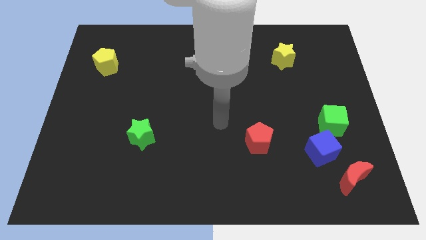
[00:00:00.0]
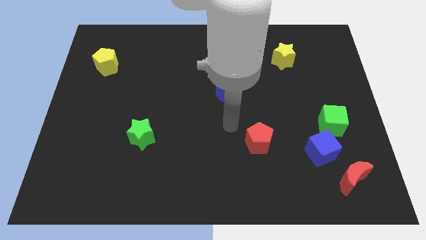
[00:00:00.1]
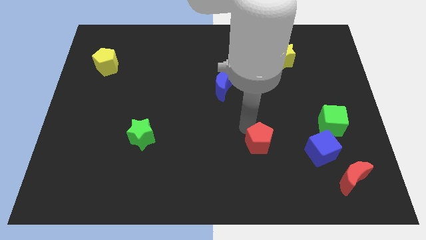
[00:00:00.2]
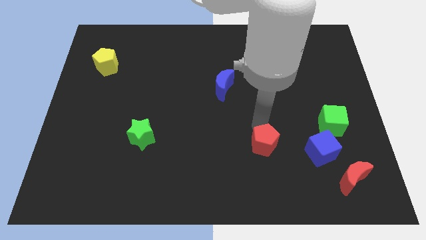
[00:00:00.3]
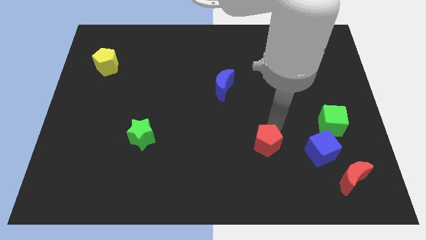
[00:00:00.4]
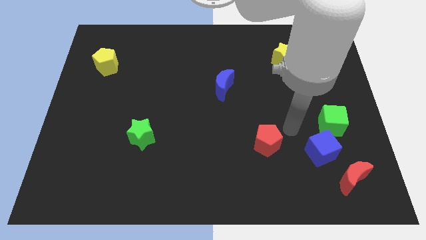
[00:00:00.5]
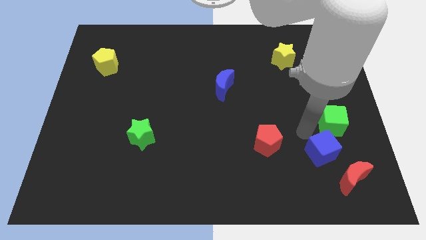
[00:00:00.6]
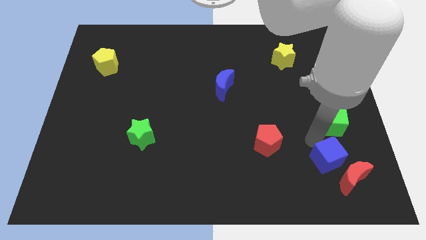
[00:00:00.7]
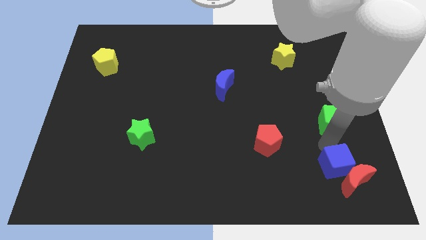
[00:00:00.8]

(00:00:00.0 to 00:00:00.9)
separate the green cube from the blue cube

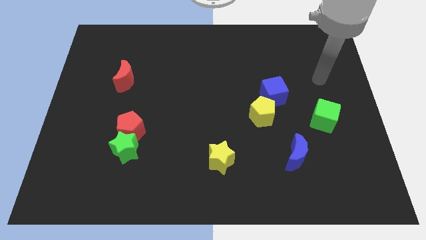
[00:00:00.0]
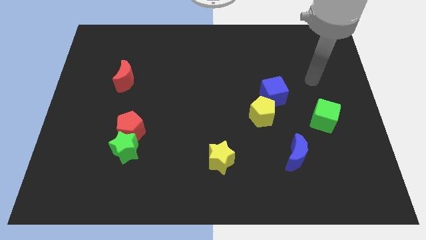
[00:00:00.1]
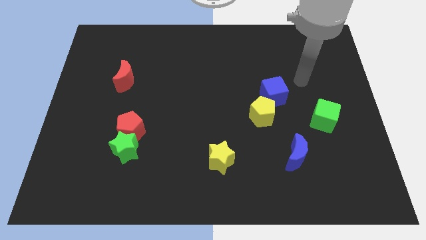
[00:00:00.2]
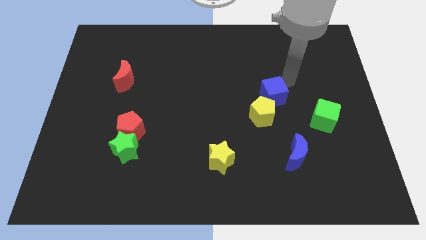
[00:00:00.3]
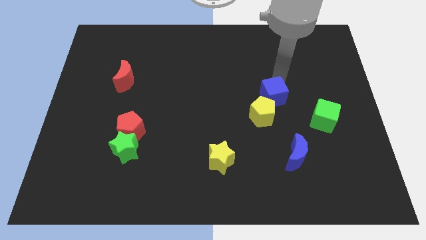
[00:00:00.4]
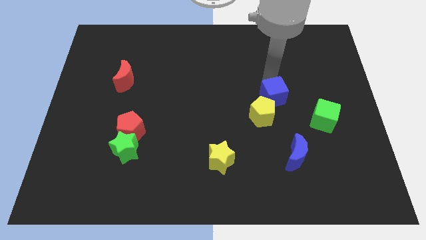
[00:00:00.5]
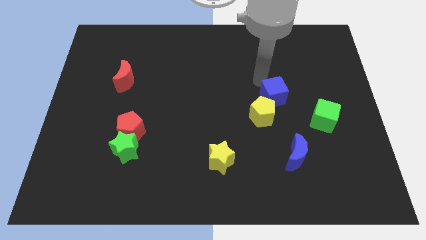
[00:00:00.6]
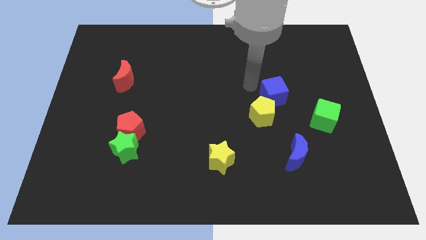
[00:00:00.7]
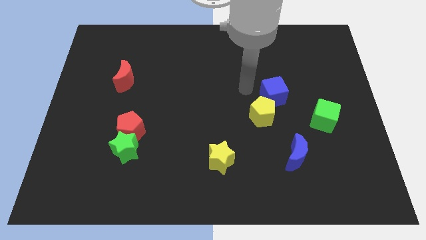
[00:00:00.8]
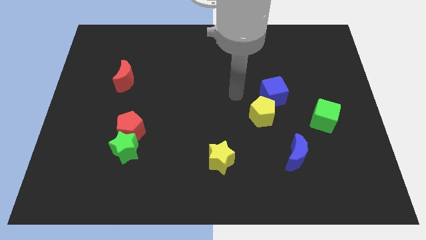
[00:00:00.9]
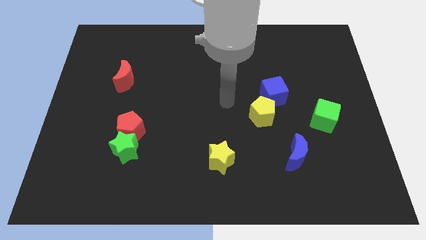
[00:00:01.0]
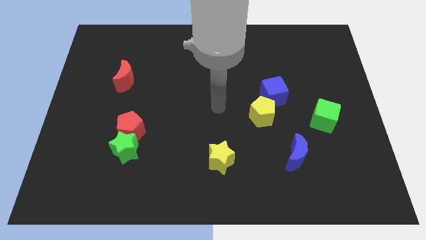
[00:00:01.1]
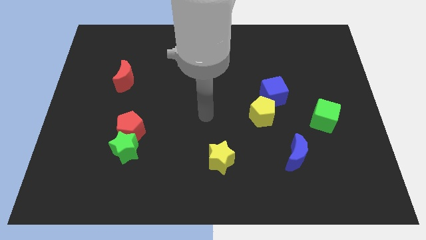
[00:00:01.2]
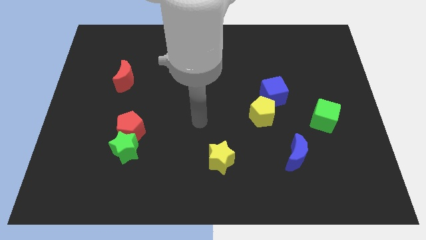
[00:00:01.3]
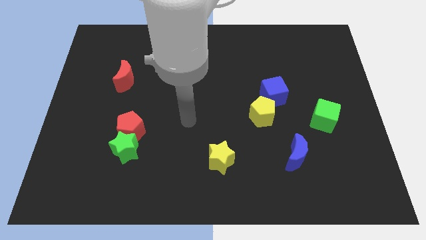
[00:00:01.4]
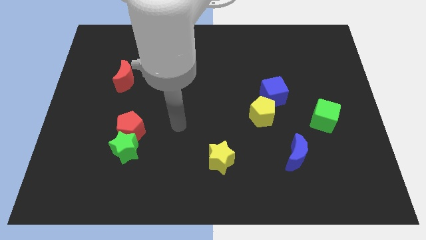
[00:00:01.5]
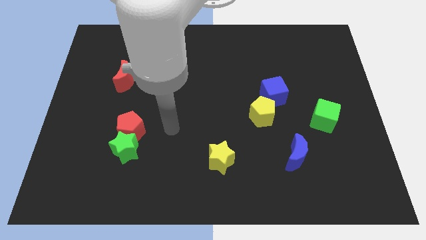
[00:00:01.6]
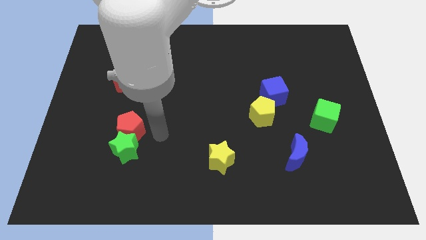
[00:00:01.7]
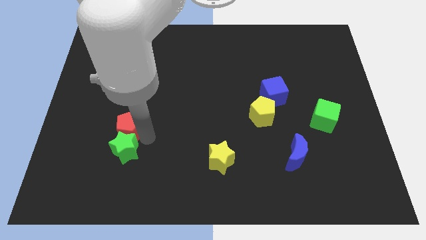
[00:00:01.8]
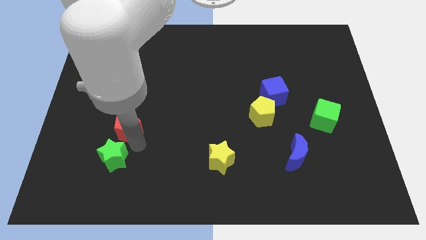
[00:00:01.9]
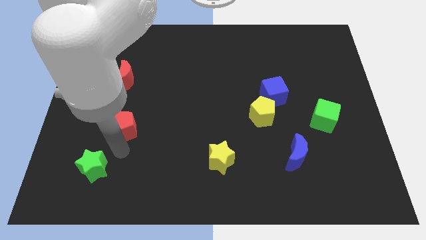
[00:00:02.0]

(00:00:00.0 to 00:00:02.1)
move the red pentagon away from the green star

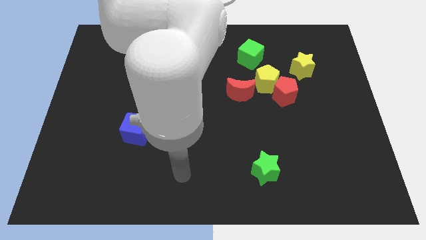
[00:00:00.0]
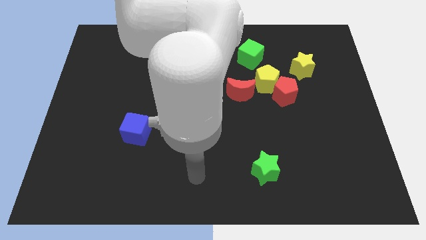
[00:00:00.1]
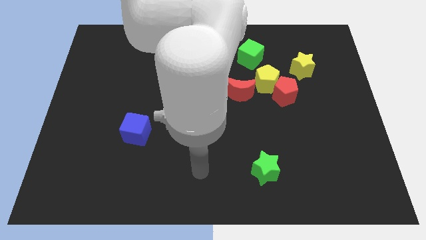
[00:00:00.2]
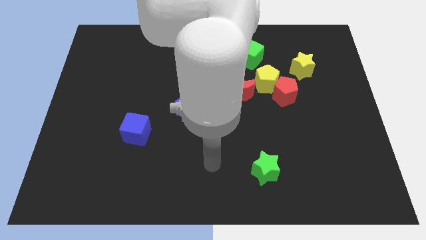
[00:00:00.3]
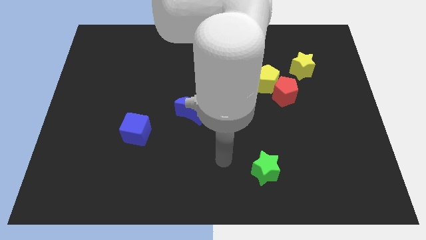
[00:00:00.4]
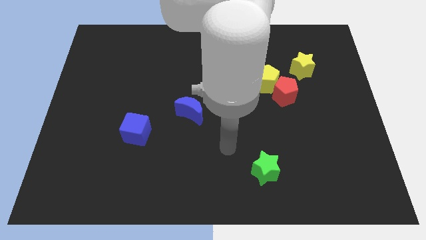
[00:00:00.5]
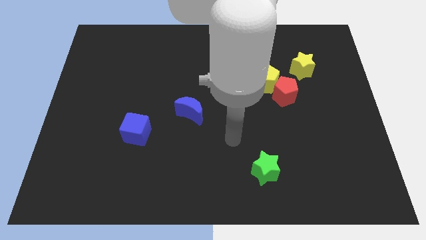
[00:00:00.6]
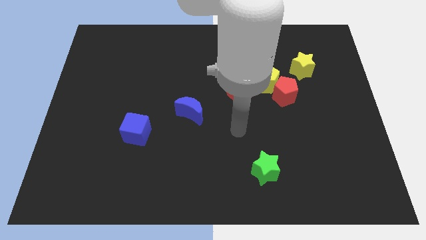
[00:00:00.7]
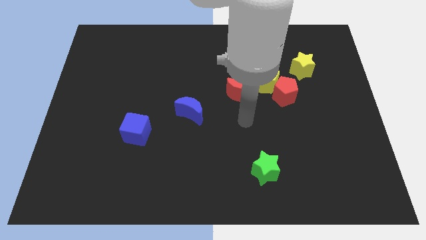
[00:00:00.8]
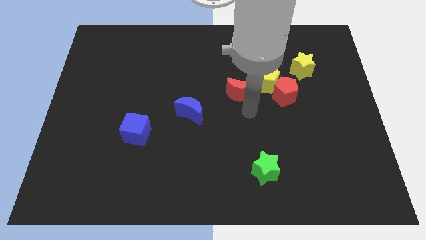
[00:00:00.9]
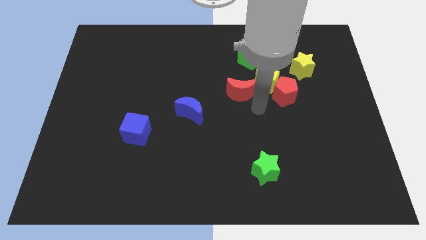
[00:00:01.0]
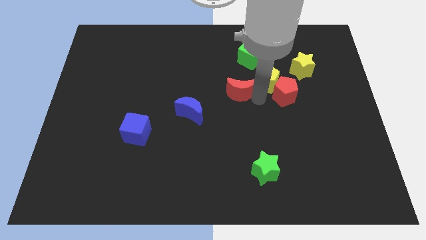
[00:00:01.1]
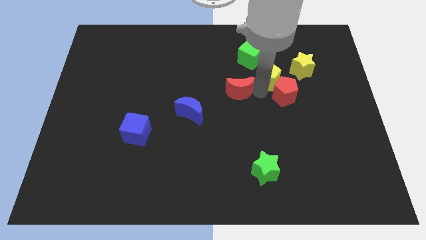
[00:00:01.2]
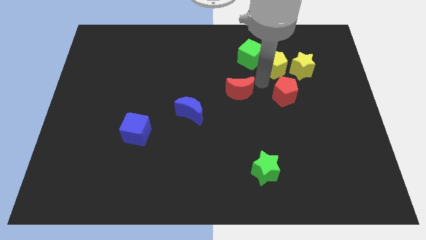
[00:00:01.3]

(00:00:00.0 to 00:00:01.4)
separate the red moon from the yellow pentagon

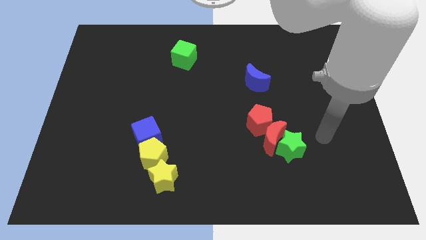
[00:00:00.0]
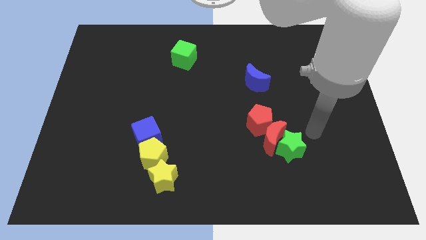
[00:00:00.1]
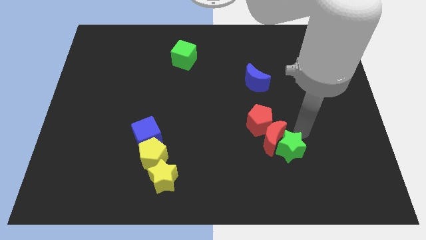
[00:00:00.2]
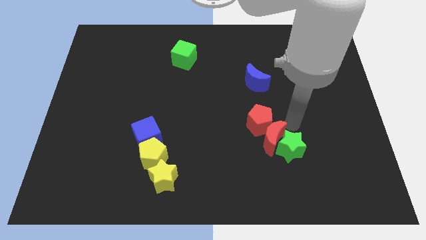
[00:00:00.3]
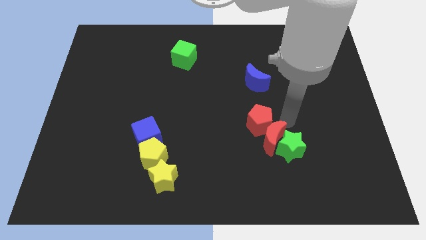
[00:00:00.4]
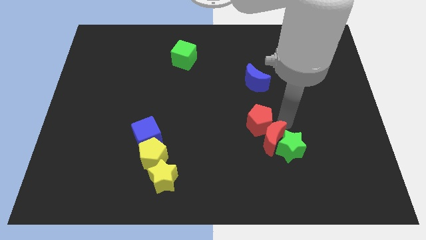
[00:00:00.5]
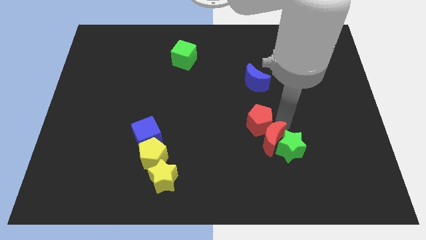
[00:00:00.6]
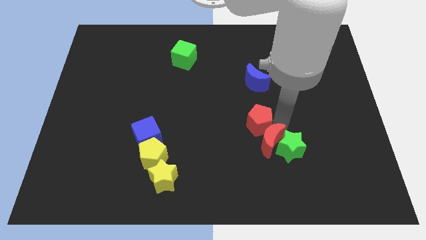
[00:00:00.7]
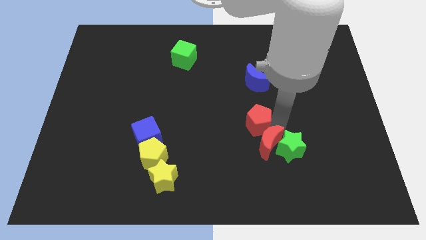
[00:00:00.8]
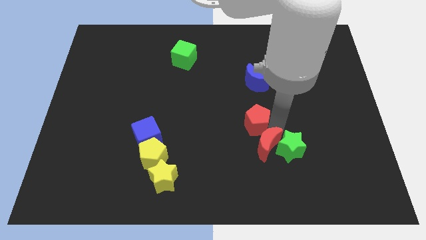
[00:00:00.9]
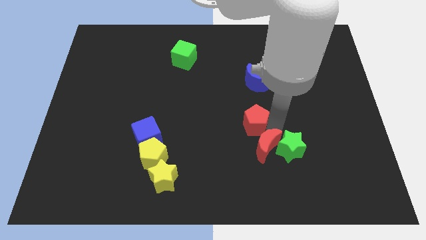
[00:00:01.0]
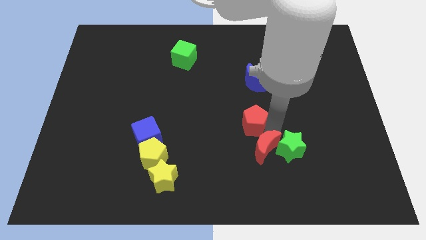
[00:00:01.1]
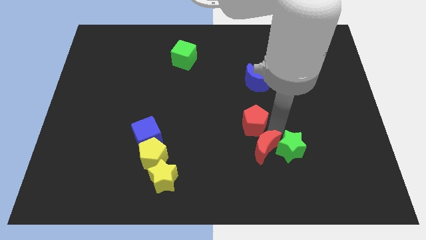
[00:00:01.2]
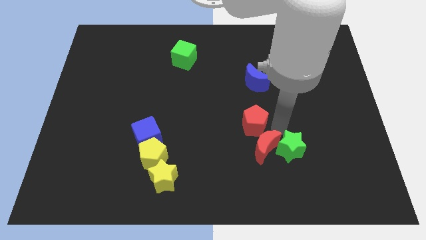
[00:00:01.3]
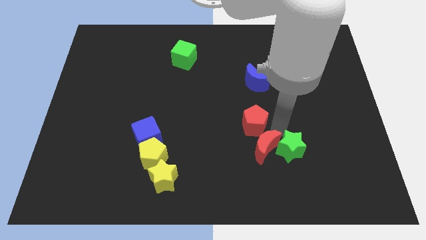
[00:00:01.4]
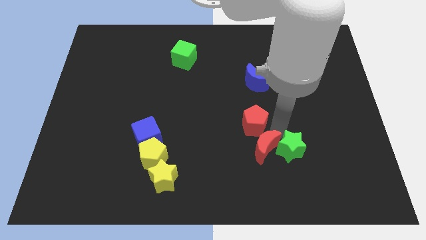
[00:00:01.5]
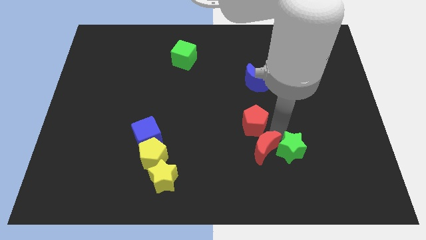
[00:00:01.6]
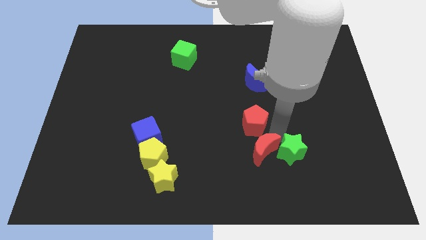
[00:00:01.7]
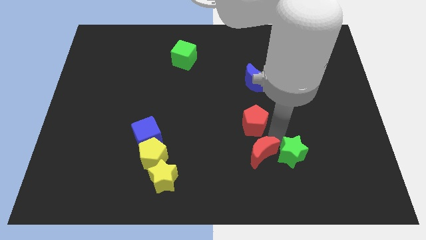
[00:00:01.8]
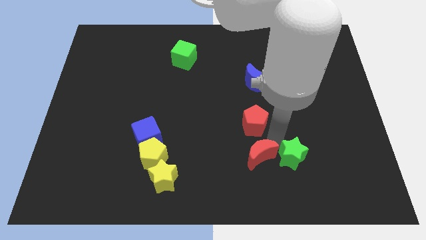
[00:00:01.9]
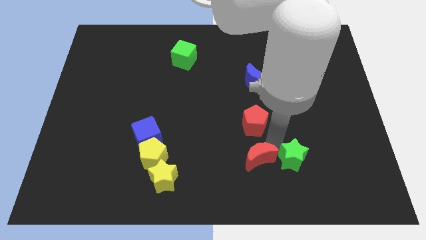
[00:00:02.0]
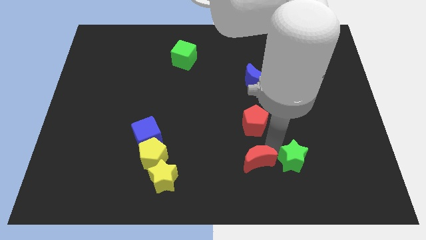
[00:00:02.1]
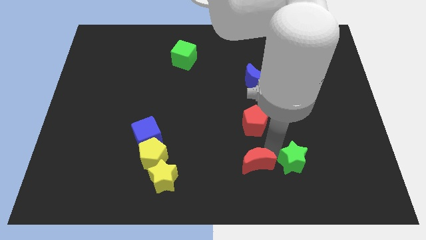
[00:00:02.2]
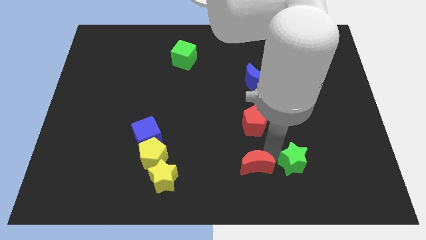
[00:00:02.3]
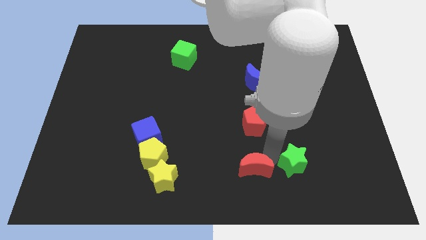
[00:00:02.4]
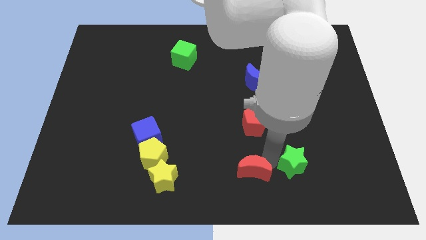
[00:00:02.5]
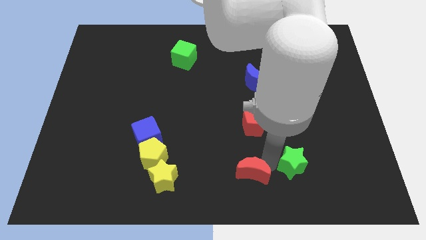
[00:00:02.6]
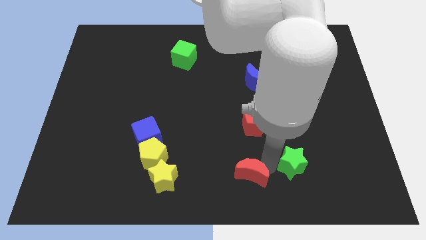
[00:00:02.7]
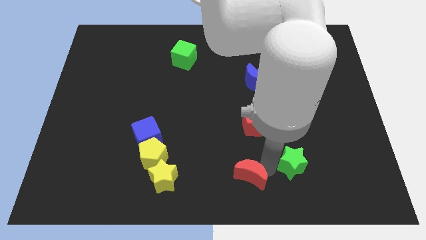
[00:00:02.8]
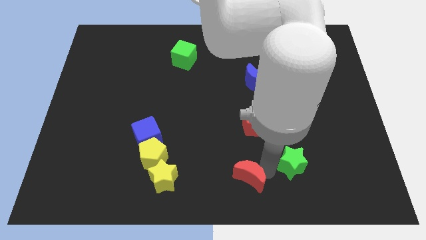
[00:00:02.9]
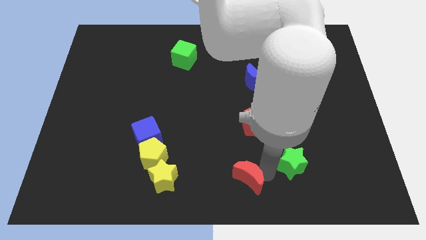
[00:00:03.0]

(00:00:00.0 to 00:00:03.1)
pull the red moon apart from the green star and red pentagon

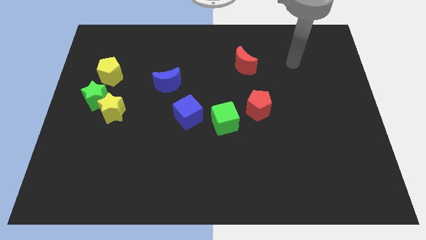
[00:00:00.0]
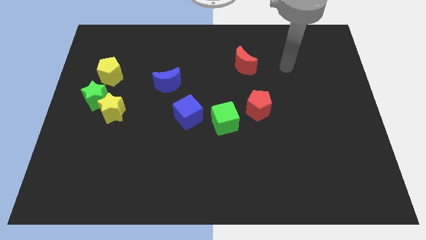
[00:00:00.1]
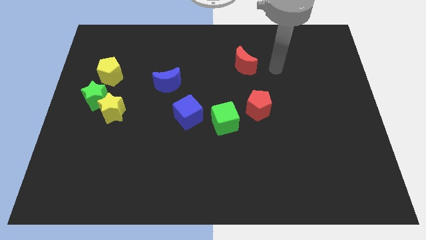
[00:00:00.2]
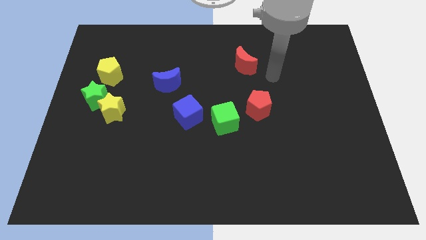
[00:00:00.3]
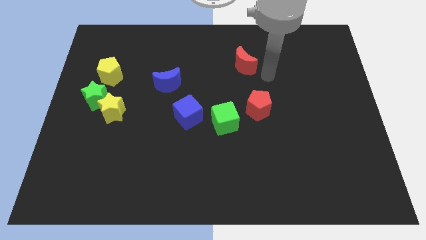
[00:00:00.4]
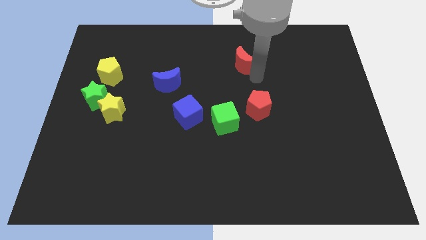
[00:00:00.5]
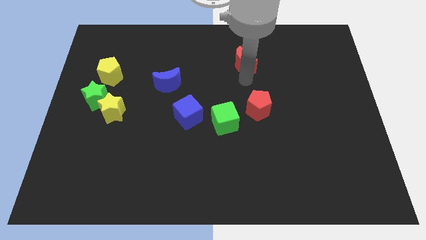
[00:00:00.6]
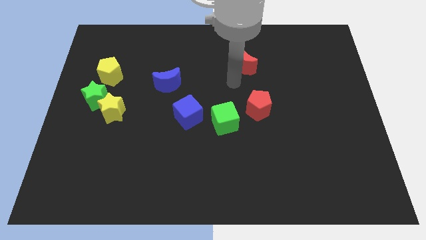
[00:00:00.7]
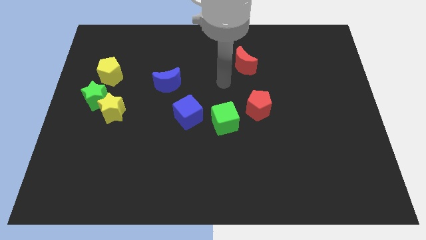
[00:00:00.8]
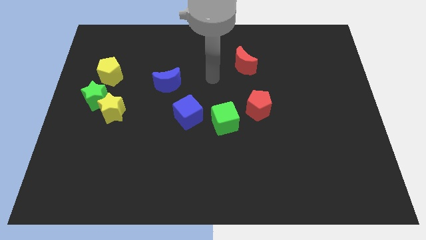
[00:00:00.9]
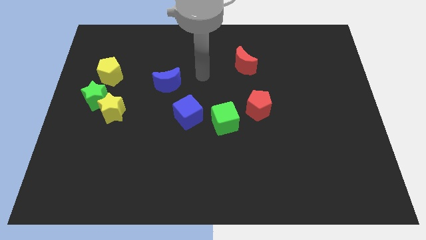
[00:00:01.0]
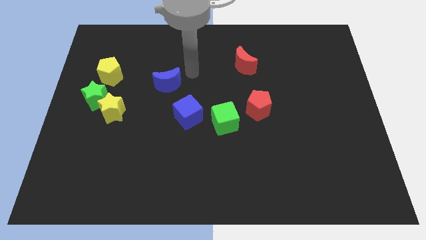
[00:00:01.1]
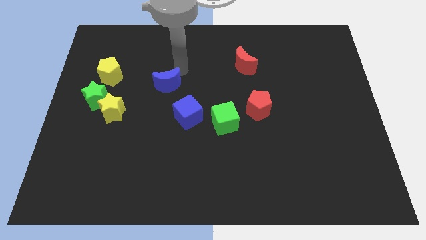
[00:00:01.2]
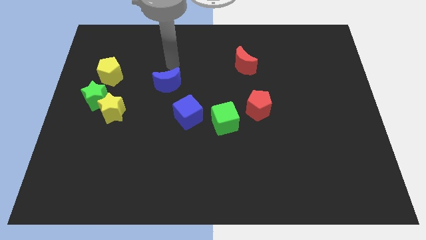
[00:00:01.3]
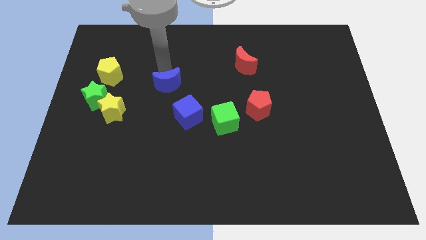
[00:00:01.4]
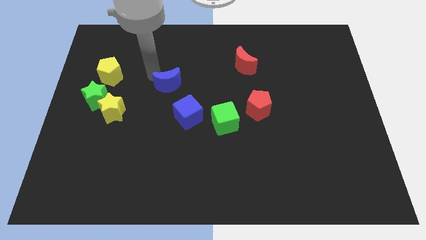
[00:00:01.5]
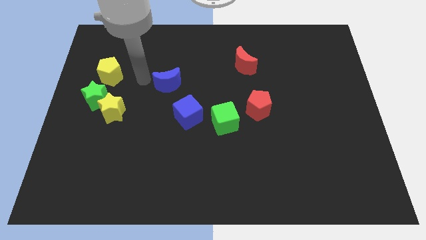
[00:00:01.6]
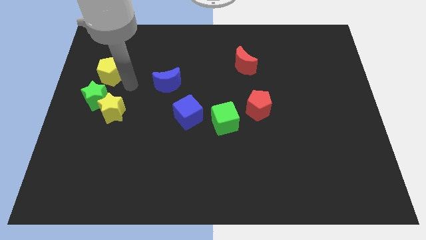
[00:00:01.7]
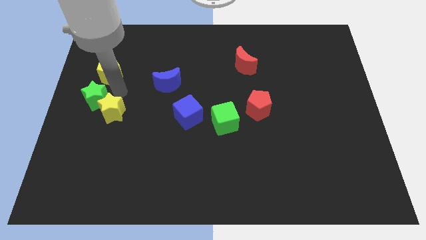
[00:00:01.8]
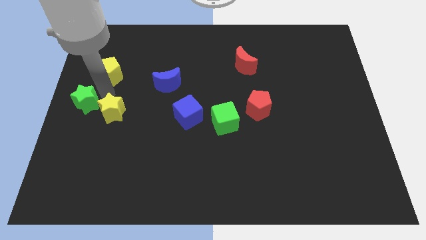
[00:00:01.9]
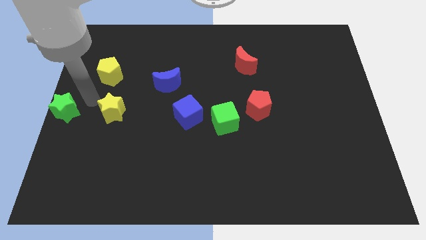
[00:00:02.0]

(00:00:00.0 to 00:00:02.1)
pull the yellow star apart from the green star
